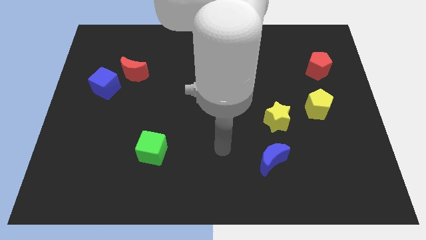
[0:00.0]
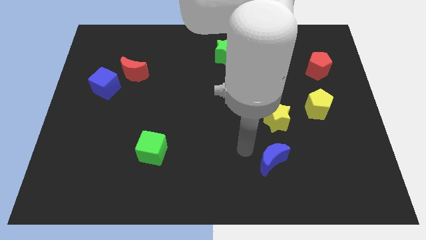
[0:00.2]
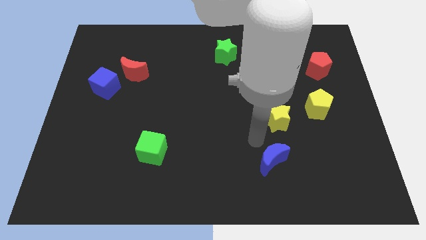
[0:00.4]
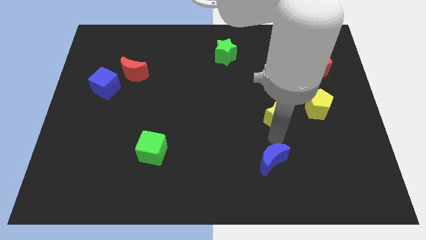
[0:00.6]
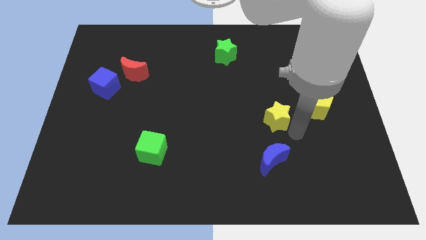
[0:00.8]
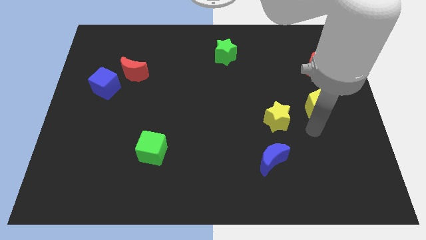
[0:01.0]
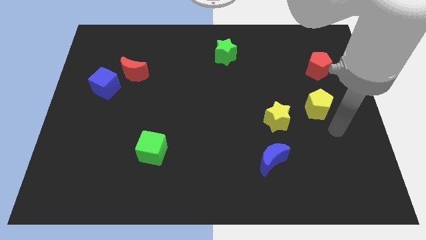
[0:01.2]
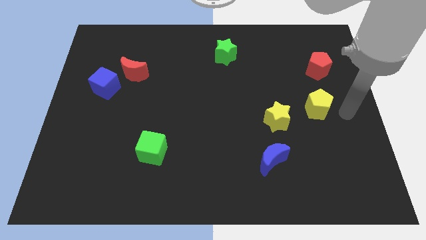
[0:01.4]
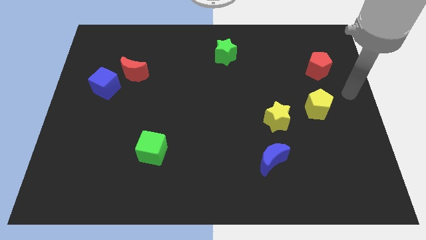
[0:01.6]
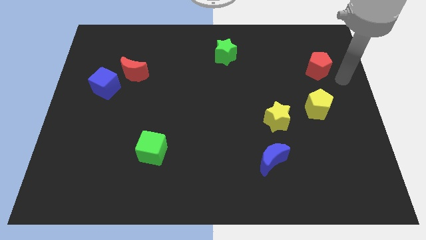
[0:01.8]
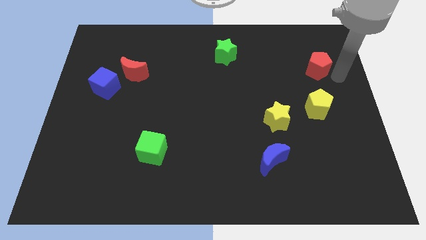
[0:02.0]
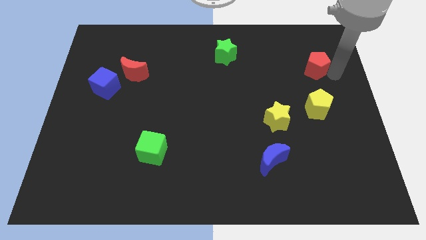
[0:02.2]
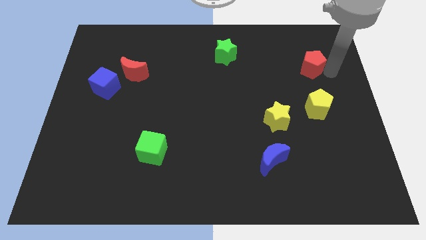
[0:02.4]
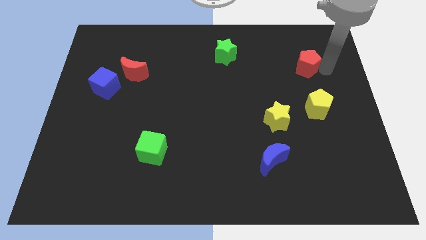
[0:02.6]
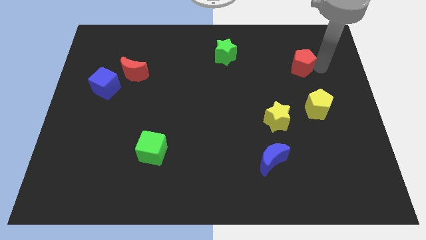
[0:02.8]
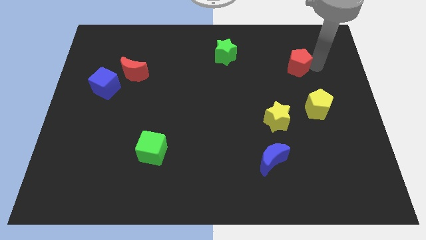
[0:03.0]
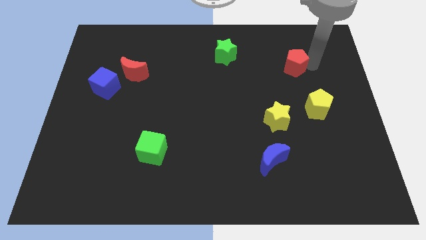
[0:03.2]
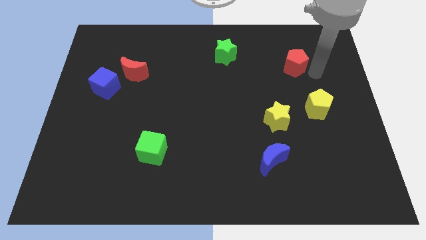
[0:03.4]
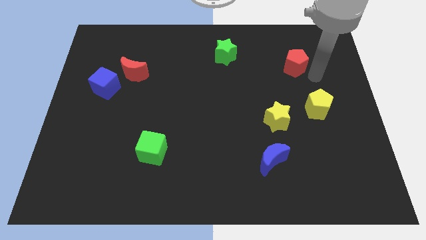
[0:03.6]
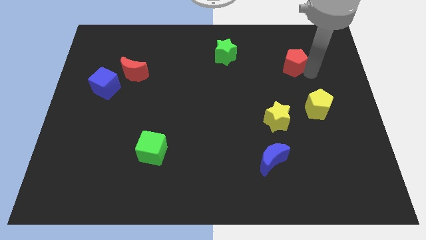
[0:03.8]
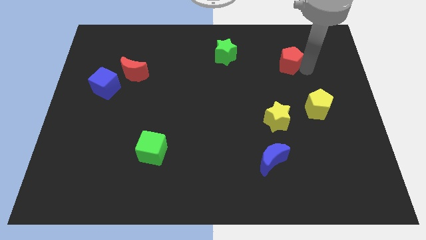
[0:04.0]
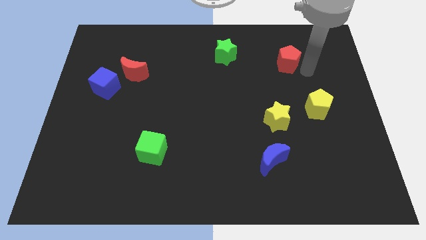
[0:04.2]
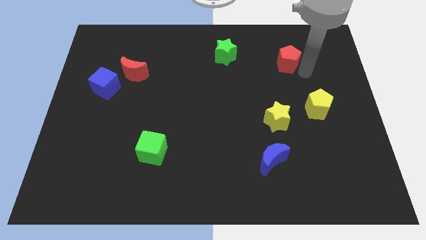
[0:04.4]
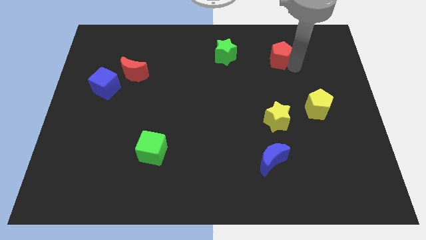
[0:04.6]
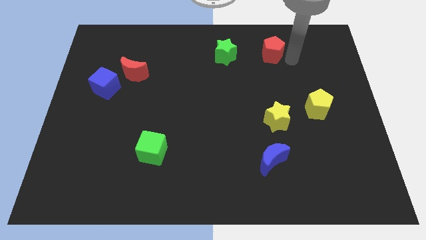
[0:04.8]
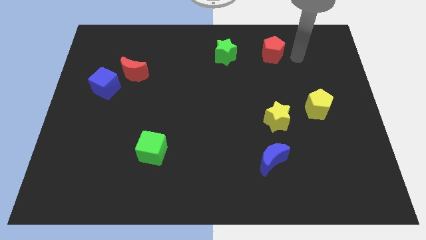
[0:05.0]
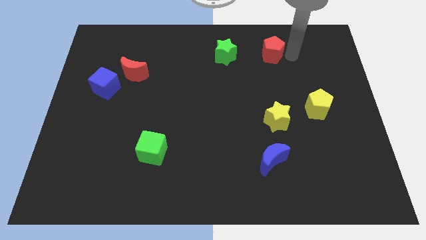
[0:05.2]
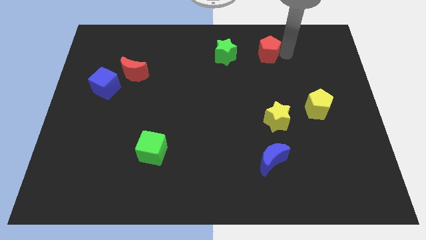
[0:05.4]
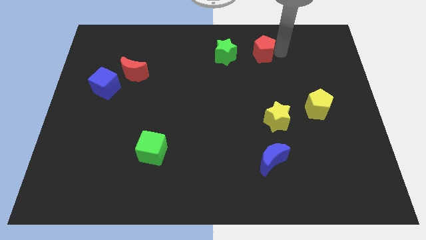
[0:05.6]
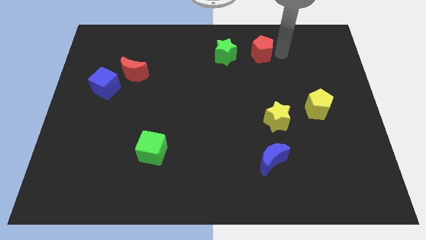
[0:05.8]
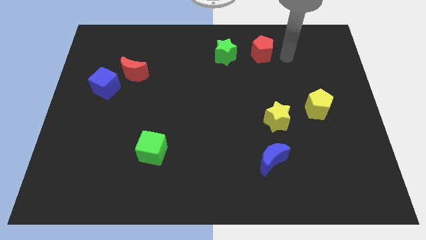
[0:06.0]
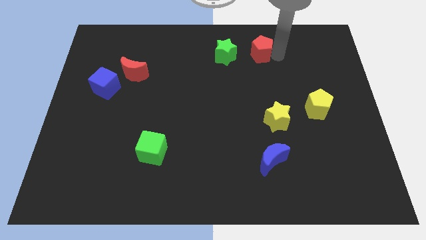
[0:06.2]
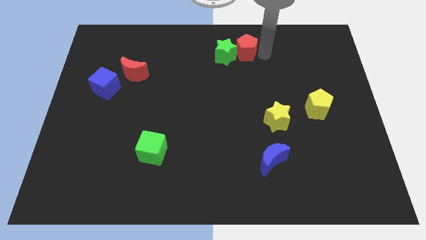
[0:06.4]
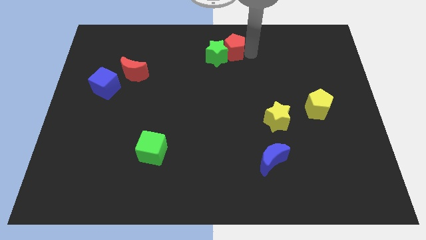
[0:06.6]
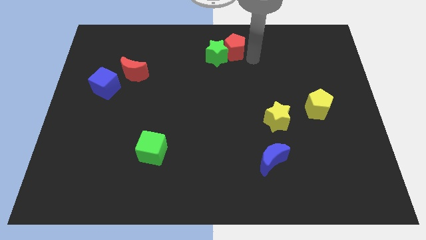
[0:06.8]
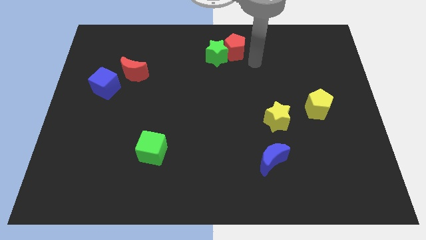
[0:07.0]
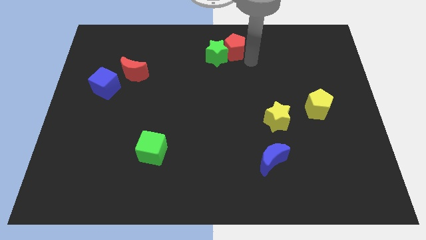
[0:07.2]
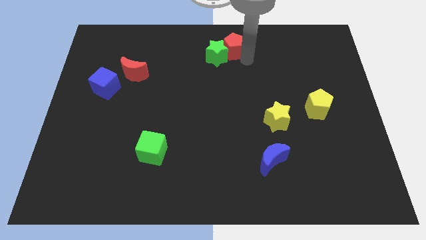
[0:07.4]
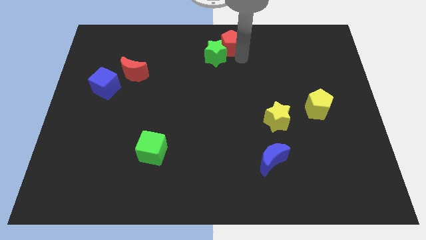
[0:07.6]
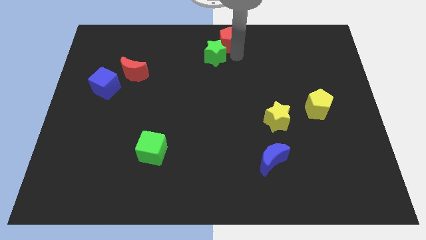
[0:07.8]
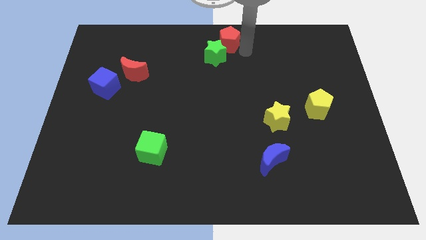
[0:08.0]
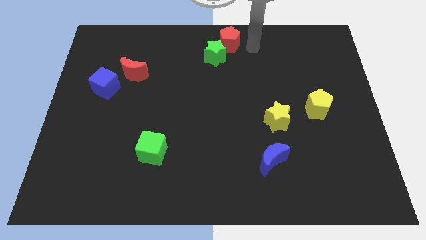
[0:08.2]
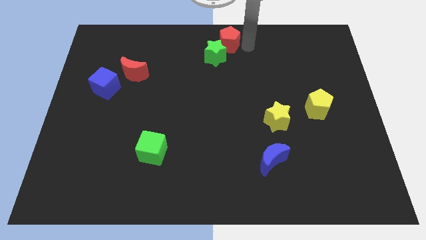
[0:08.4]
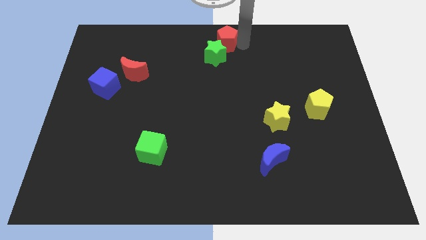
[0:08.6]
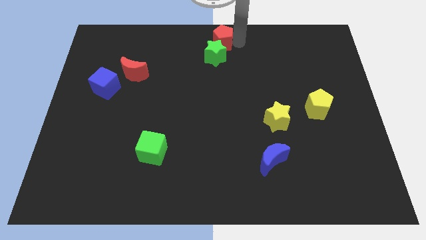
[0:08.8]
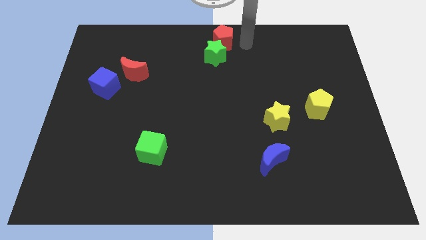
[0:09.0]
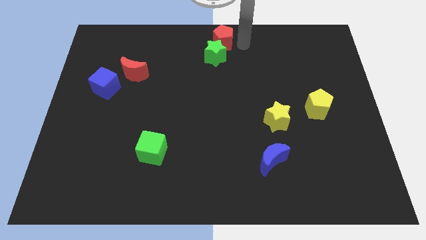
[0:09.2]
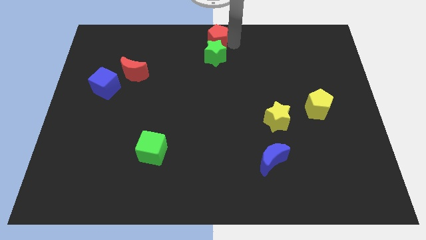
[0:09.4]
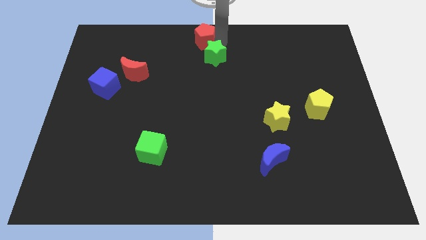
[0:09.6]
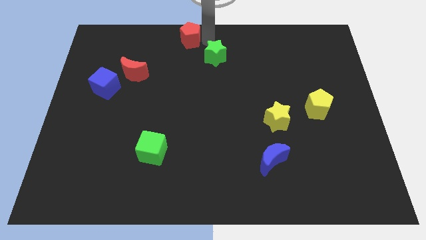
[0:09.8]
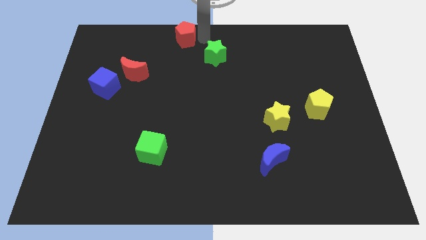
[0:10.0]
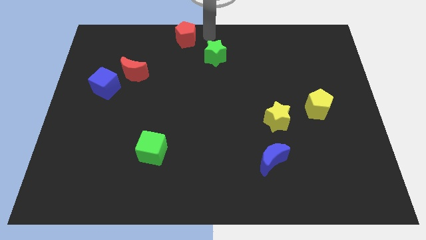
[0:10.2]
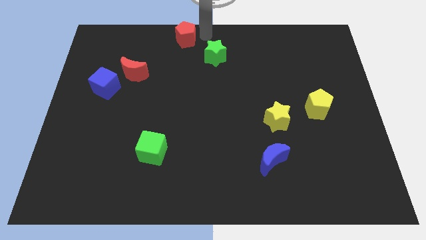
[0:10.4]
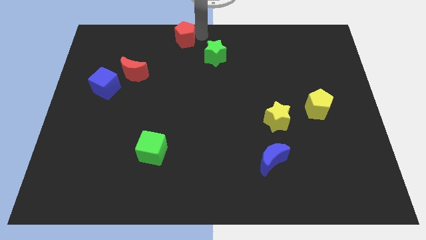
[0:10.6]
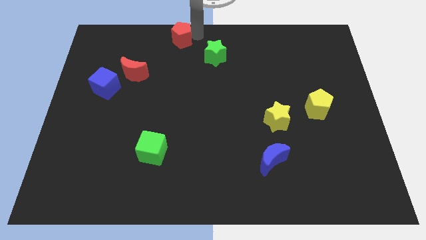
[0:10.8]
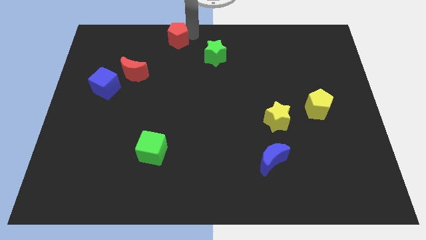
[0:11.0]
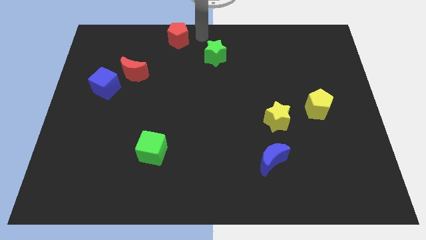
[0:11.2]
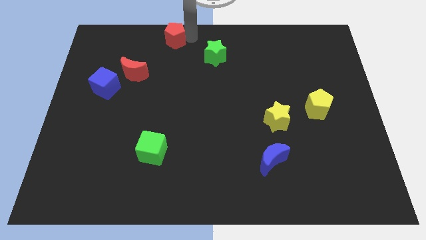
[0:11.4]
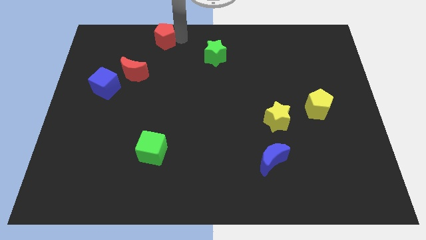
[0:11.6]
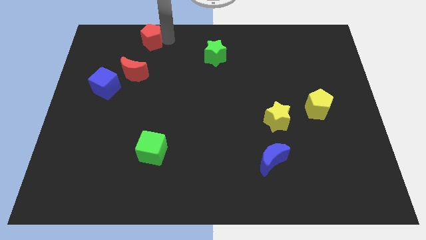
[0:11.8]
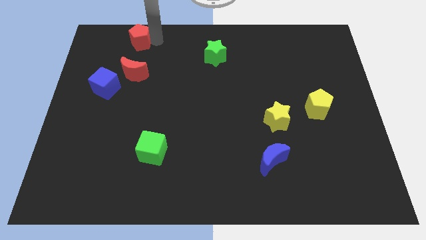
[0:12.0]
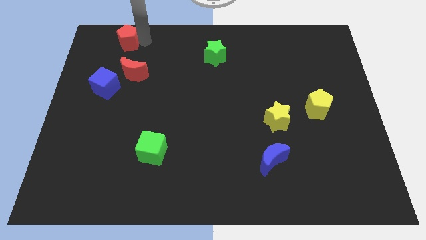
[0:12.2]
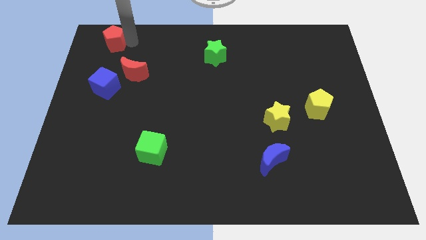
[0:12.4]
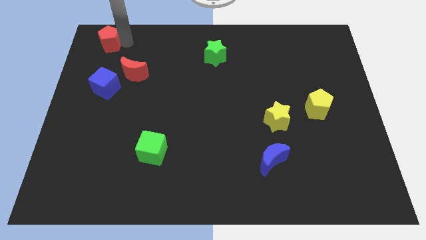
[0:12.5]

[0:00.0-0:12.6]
move the red pentagon to the top left of the board
